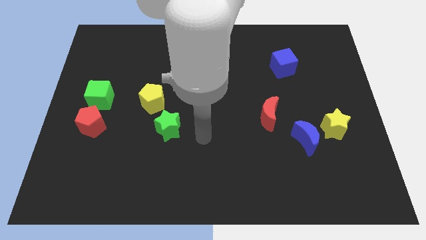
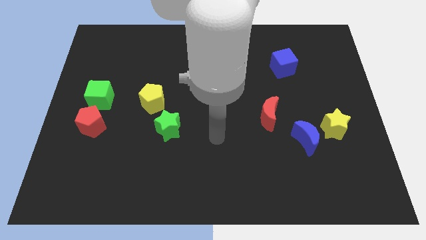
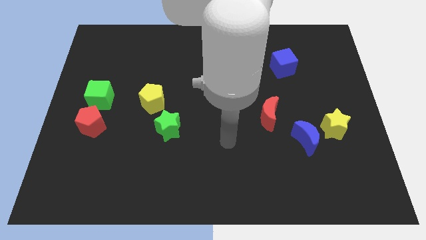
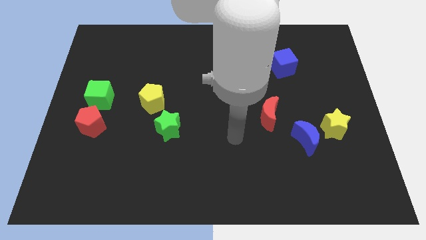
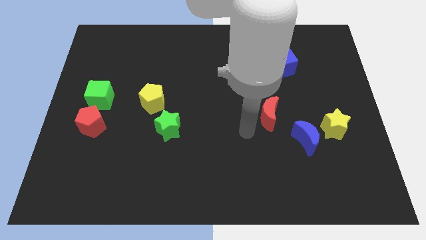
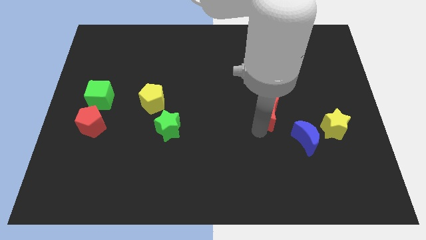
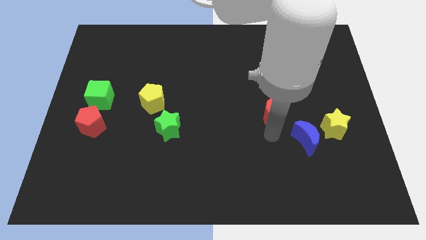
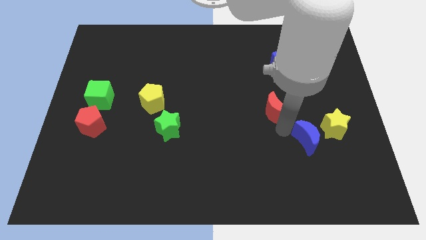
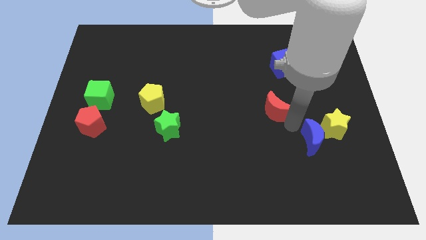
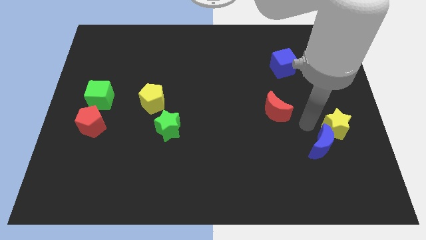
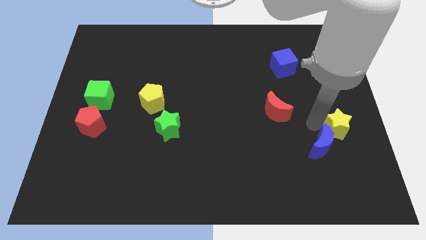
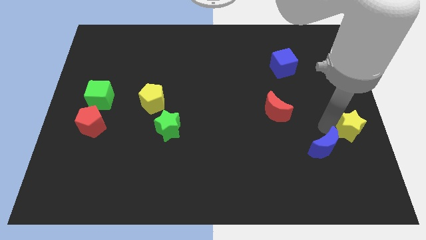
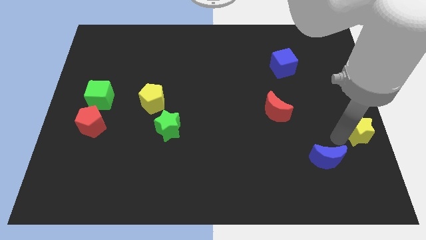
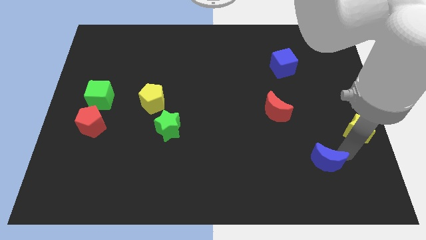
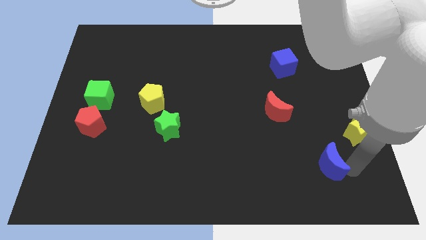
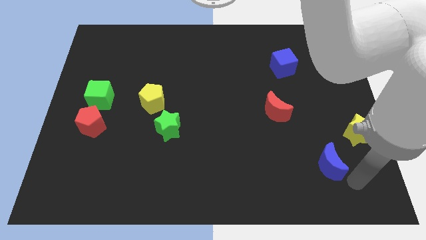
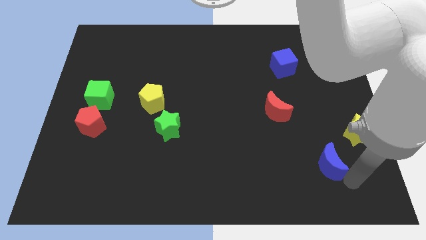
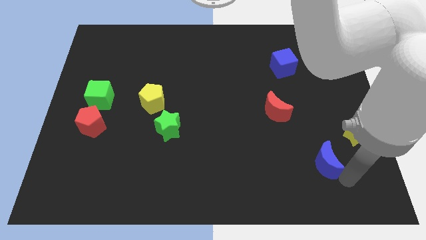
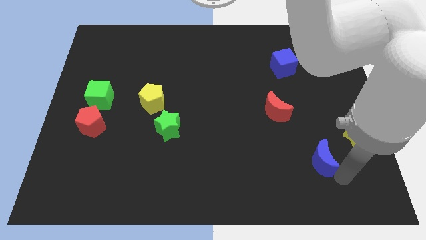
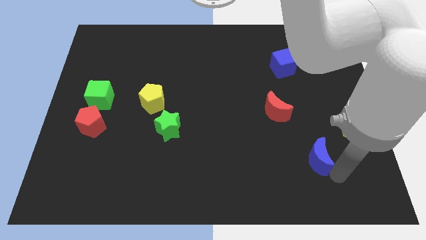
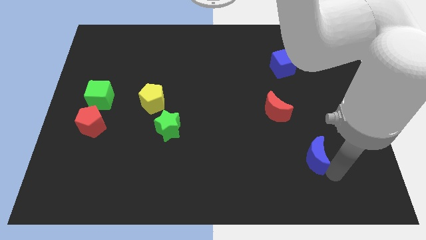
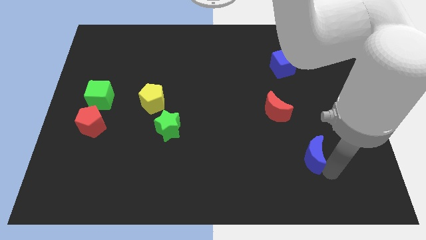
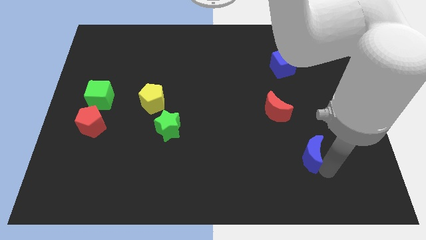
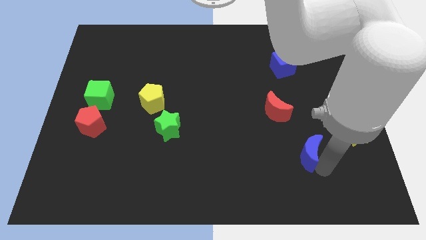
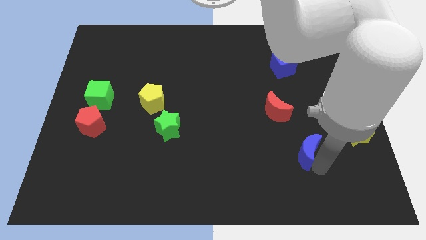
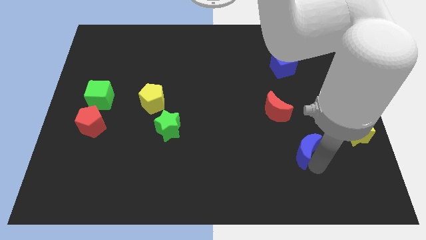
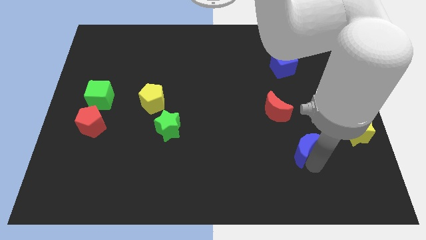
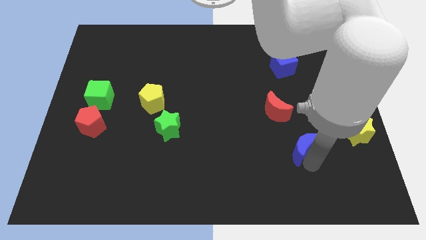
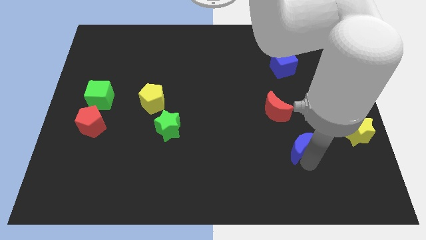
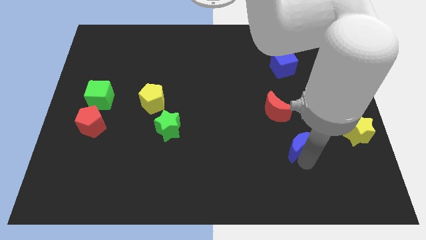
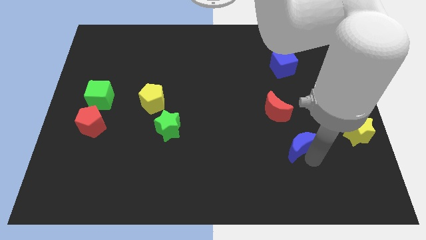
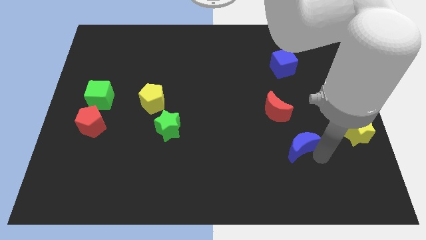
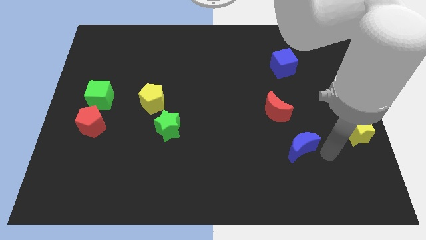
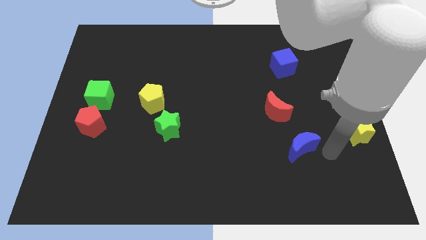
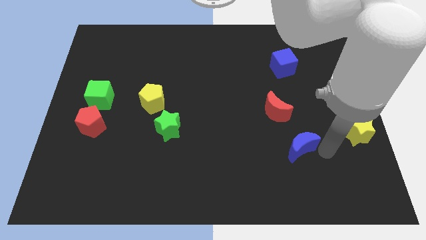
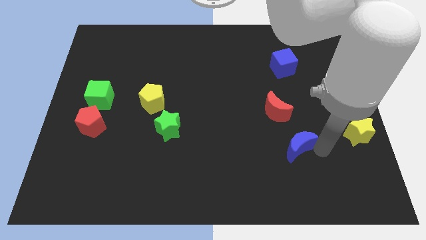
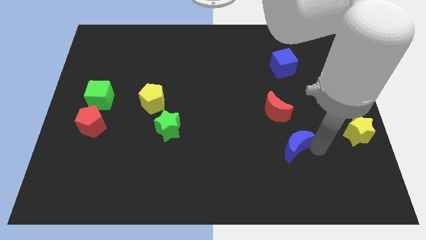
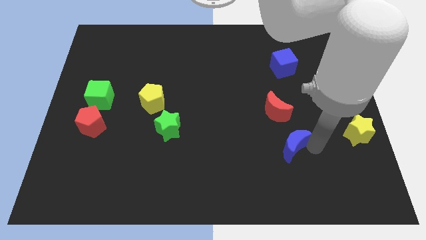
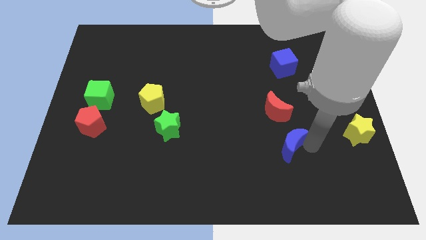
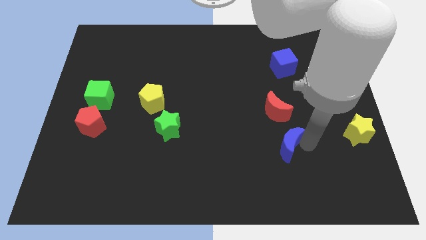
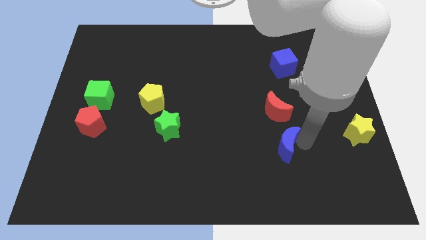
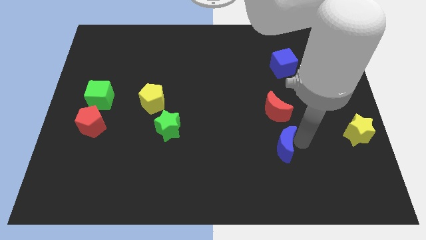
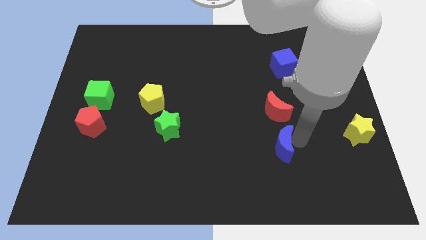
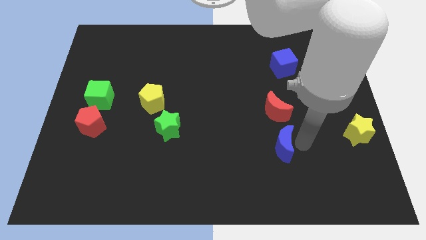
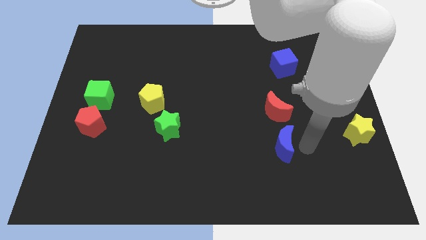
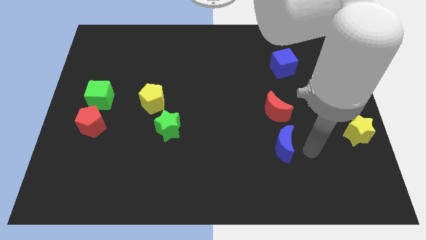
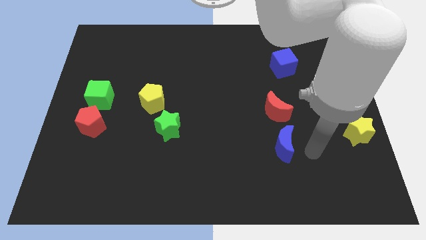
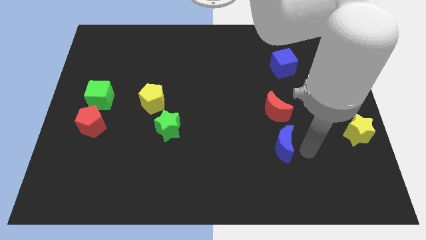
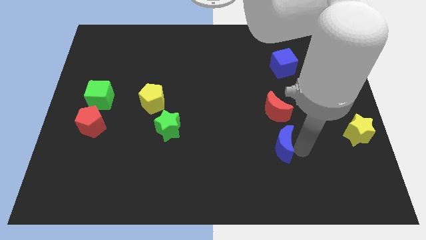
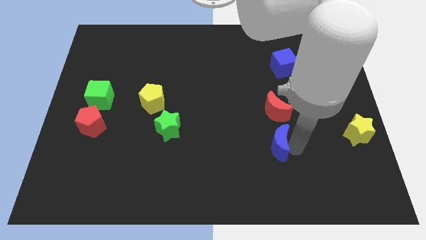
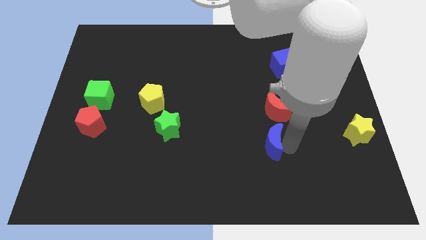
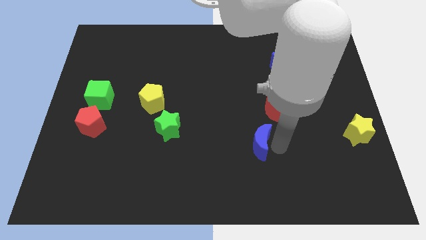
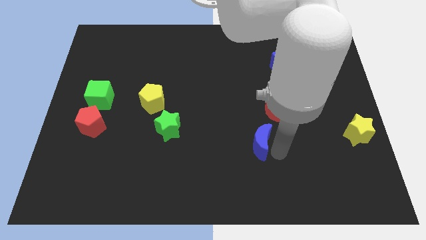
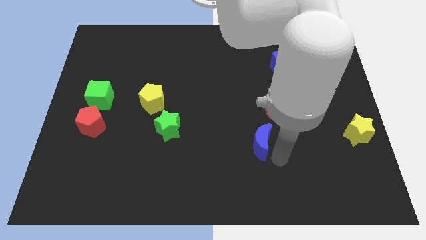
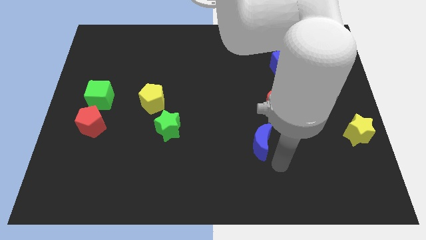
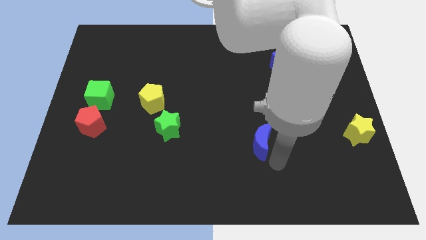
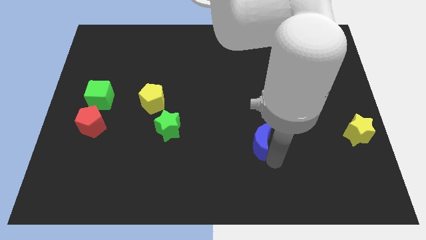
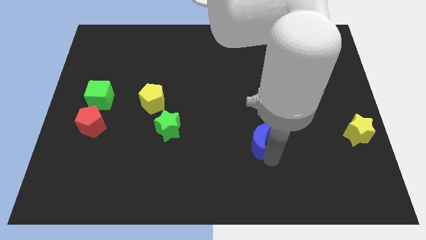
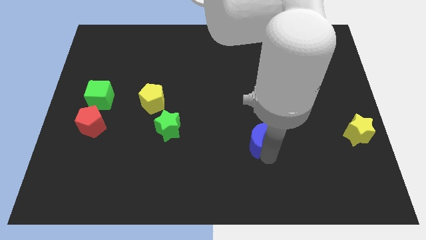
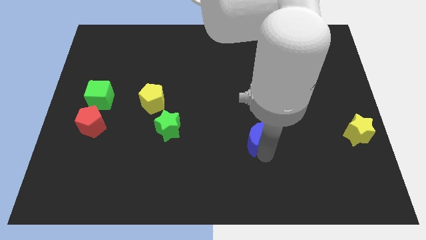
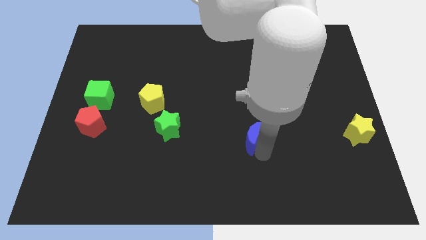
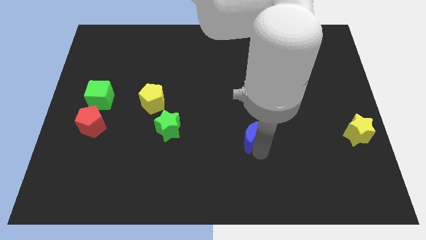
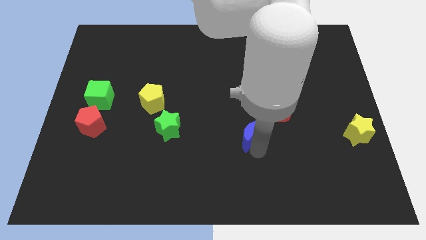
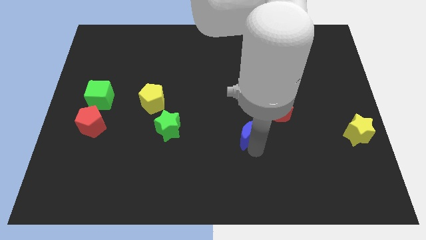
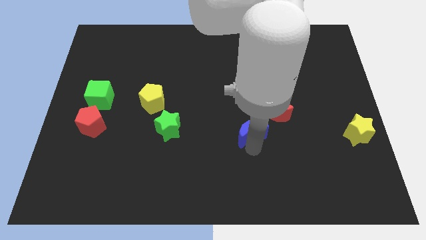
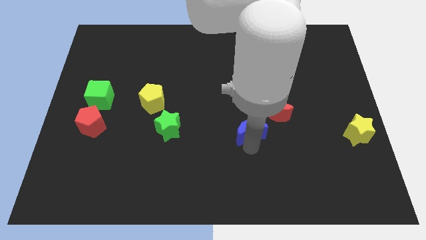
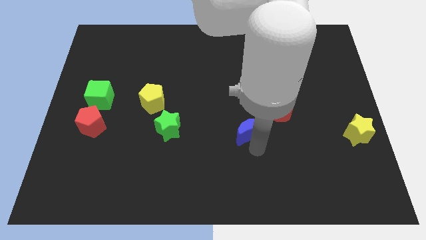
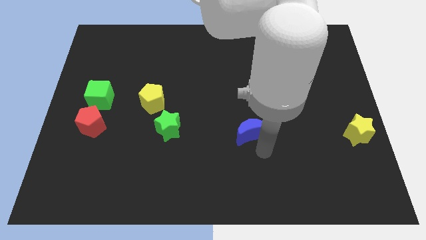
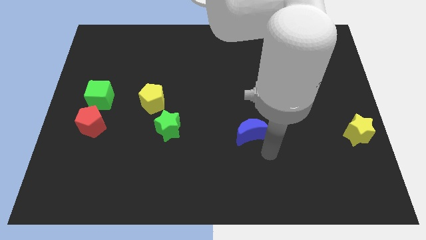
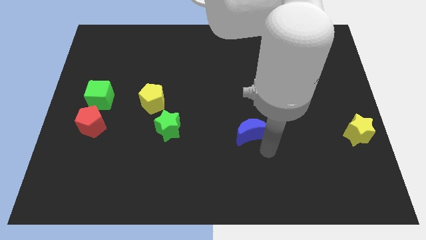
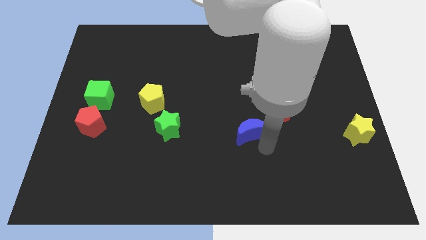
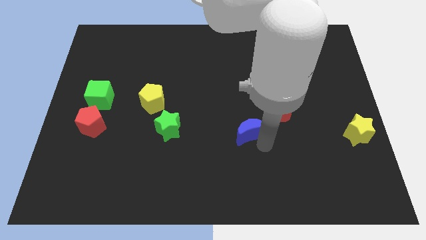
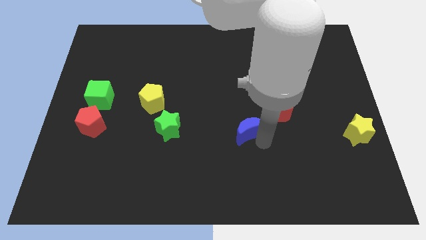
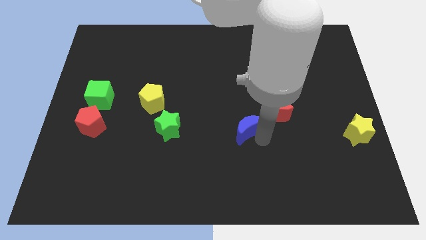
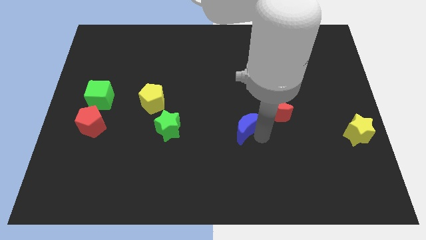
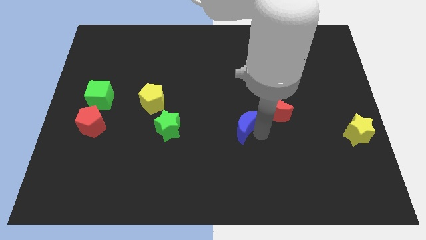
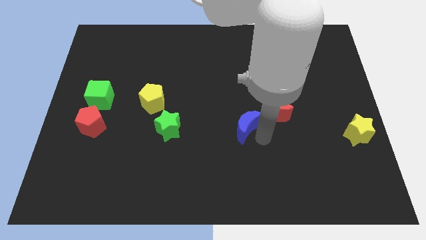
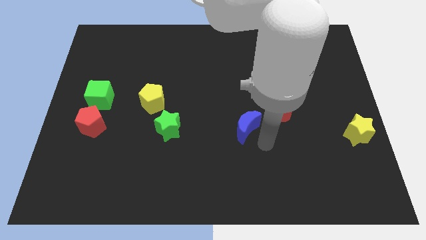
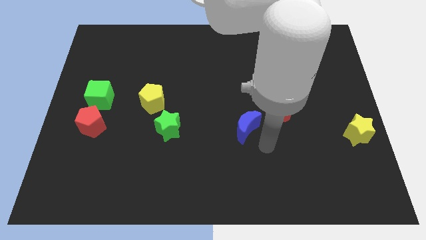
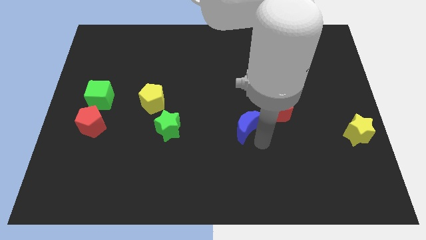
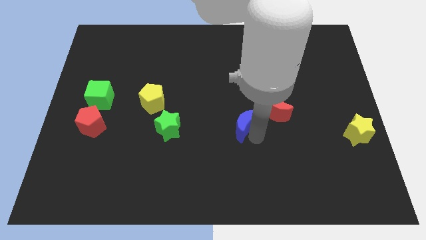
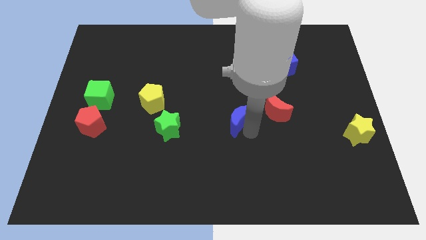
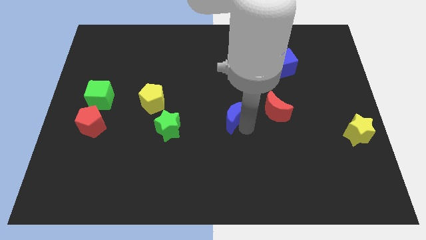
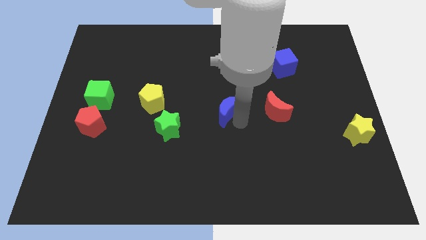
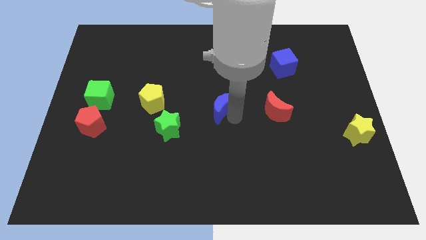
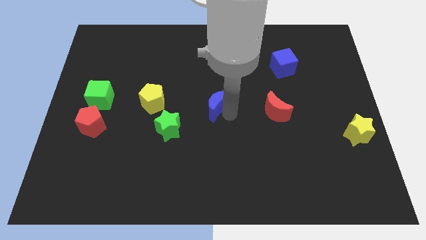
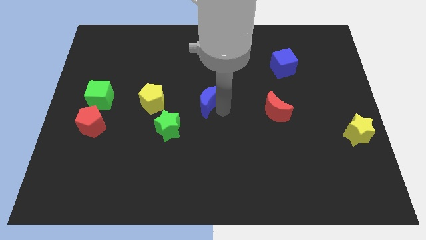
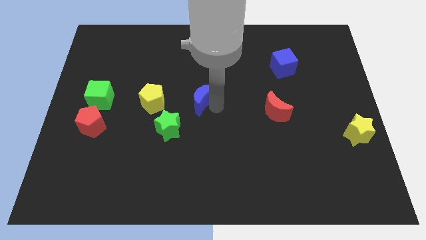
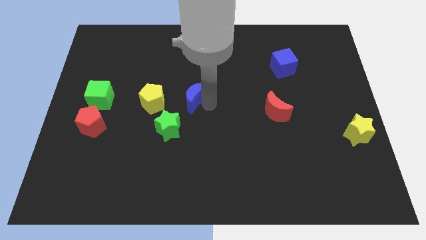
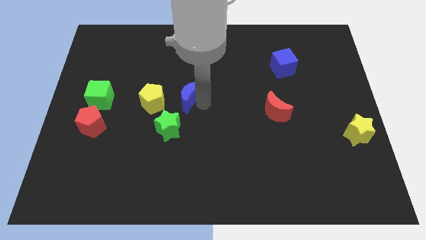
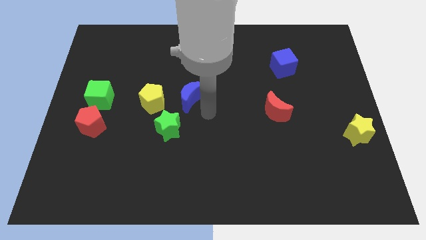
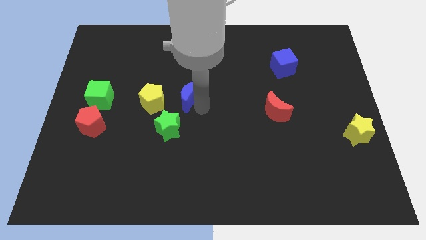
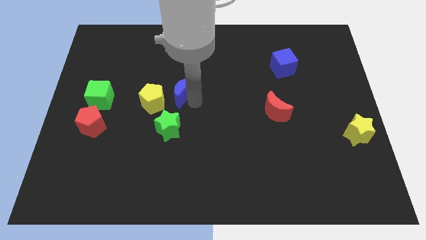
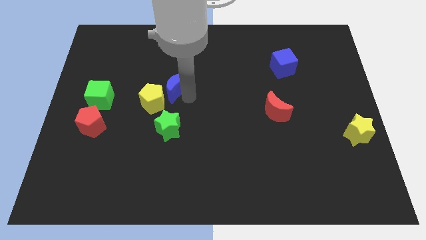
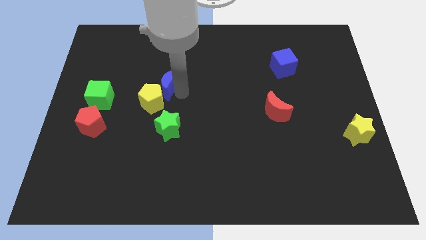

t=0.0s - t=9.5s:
slide the blue moon to the top side of the yellow pentagon
